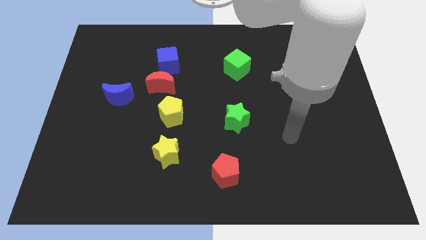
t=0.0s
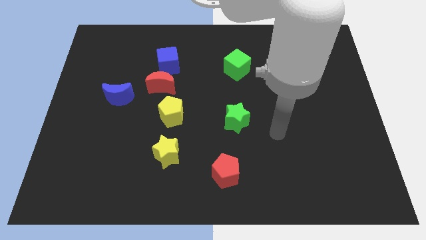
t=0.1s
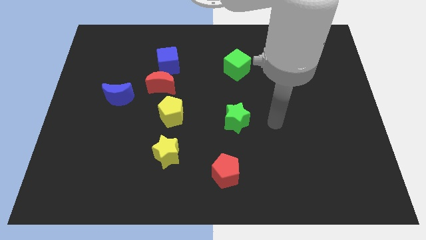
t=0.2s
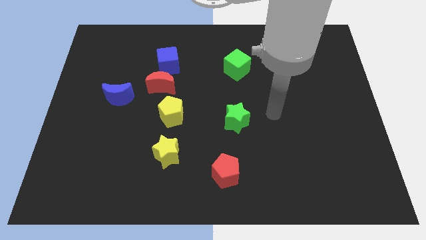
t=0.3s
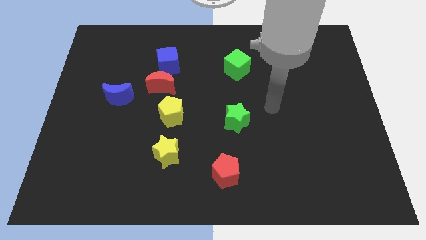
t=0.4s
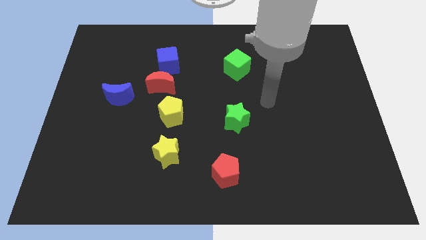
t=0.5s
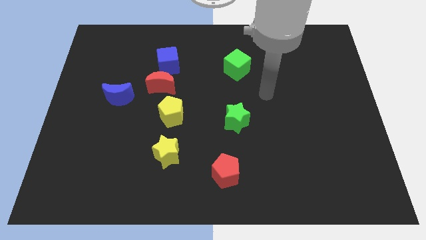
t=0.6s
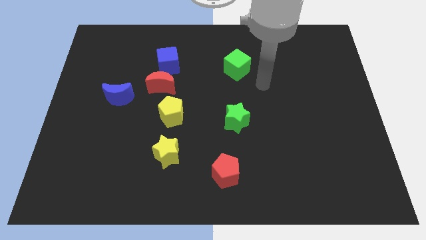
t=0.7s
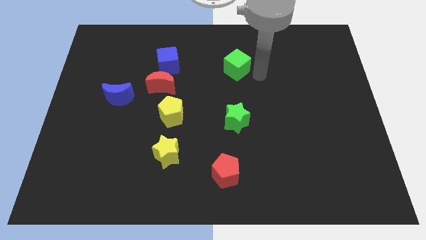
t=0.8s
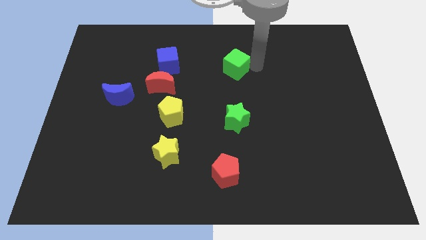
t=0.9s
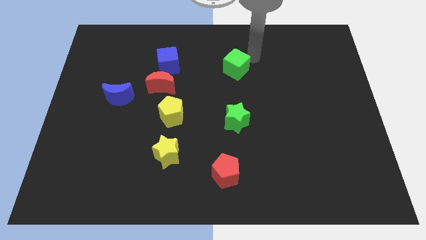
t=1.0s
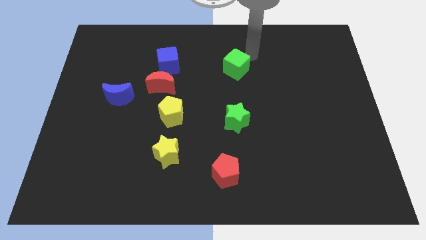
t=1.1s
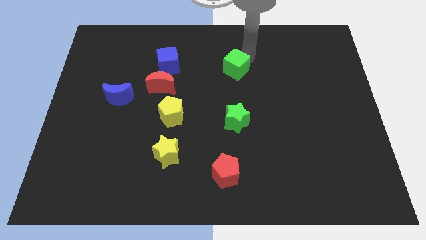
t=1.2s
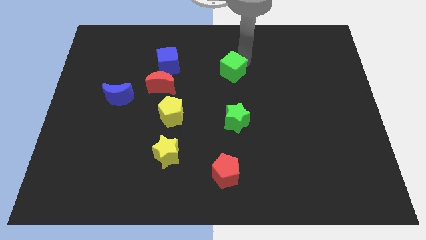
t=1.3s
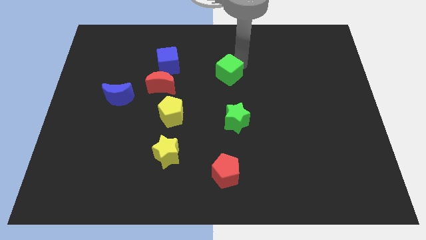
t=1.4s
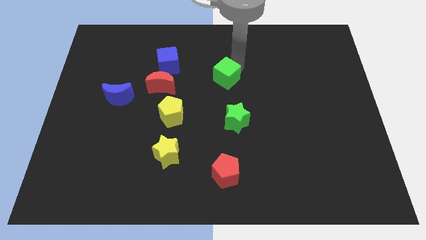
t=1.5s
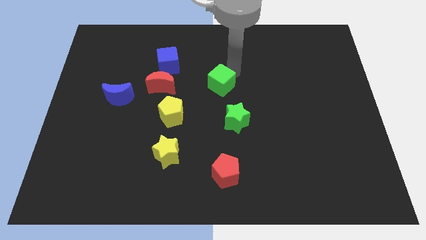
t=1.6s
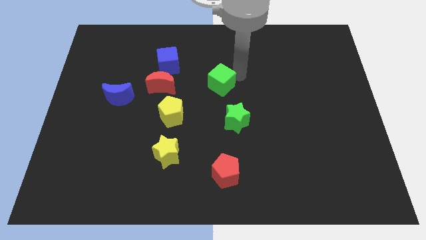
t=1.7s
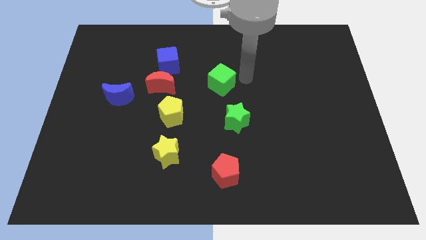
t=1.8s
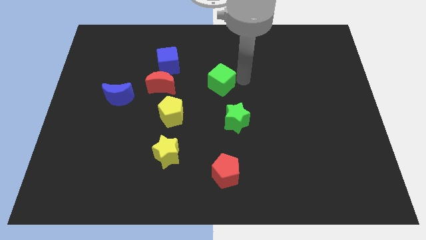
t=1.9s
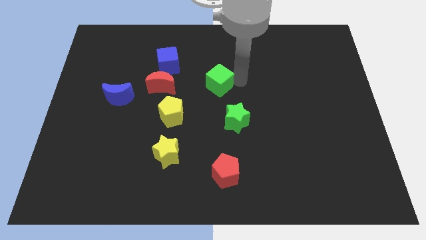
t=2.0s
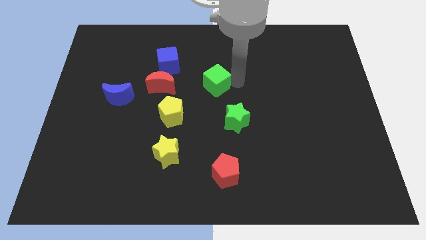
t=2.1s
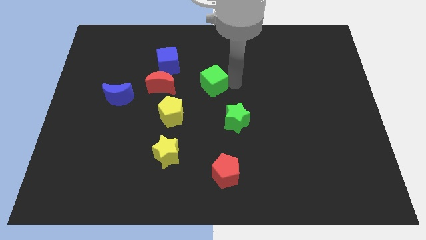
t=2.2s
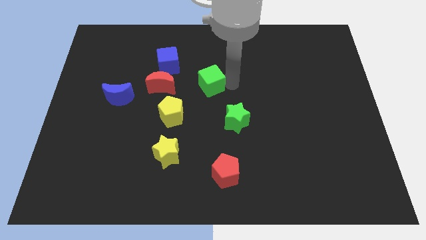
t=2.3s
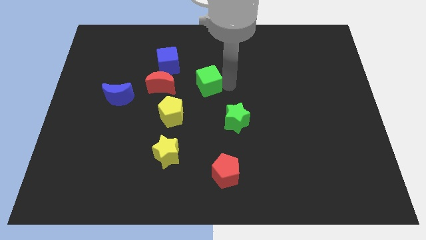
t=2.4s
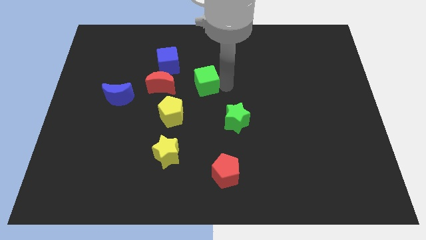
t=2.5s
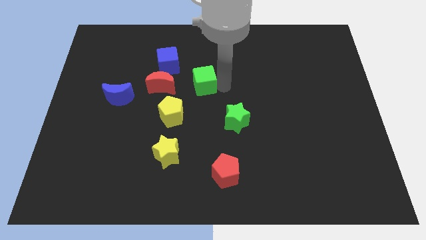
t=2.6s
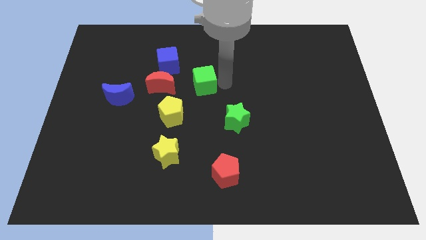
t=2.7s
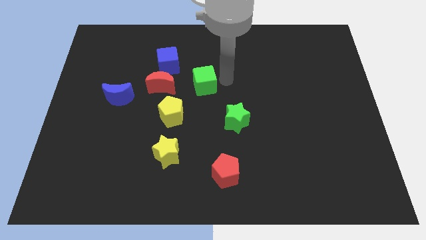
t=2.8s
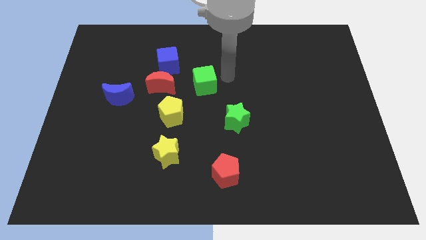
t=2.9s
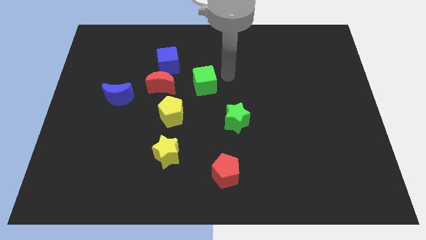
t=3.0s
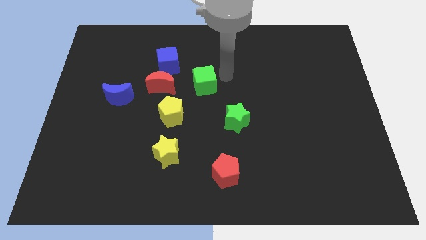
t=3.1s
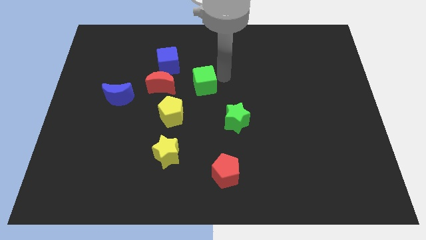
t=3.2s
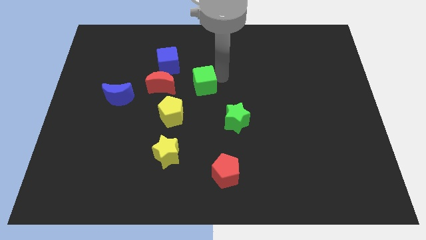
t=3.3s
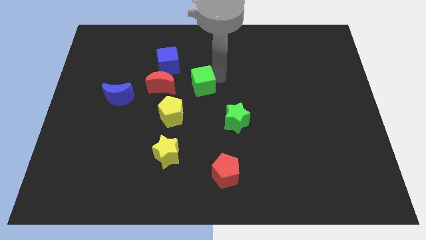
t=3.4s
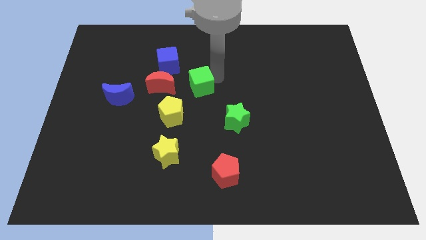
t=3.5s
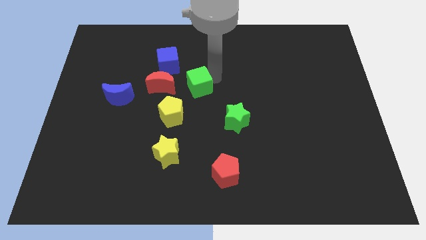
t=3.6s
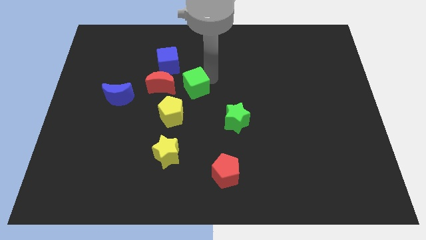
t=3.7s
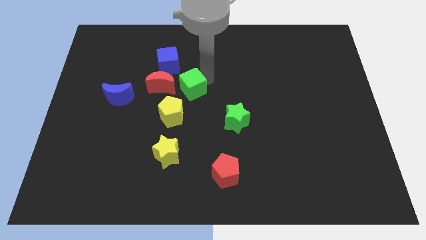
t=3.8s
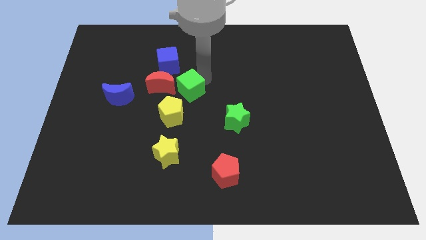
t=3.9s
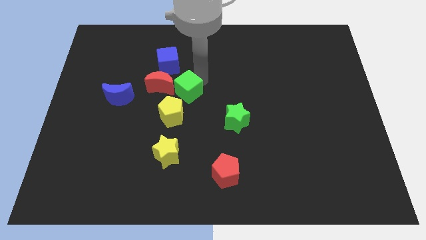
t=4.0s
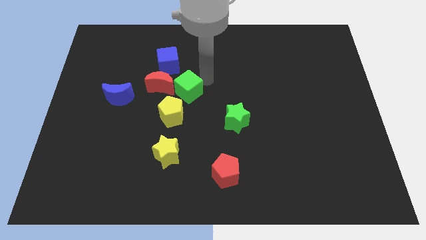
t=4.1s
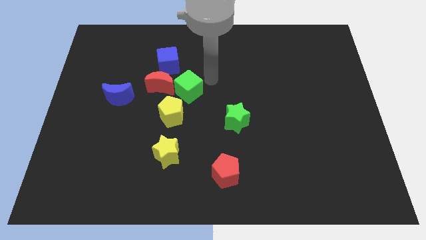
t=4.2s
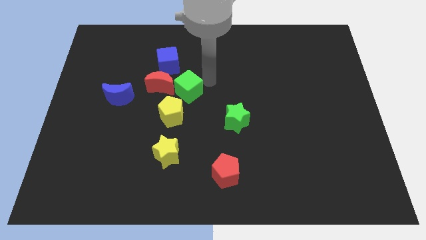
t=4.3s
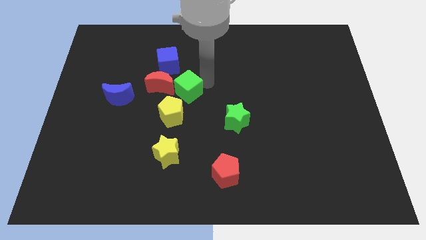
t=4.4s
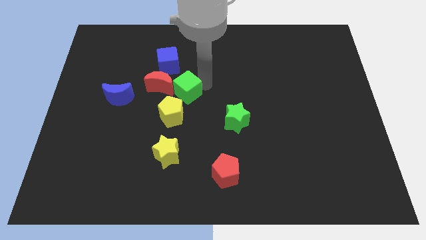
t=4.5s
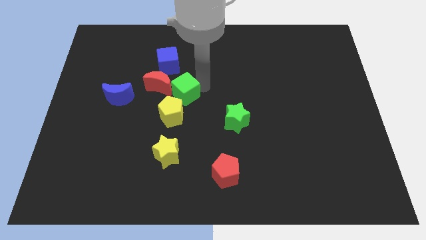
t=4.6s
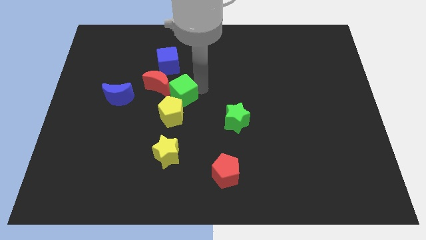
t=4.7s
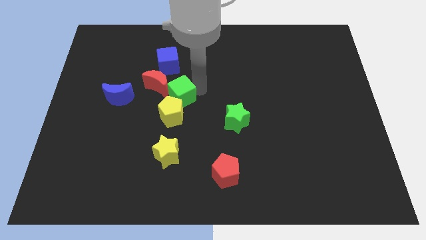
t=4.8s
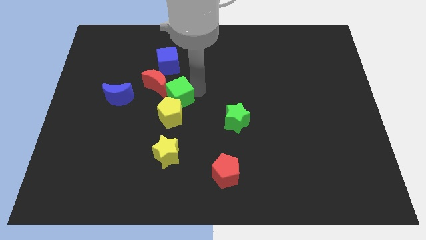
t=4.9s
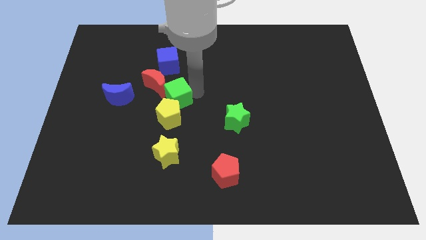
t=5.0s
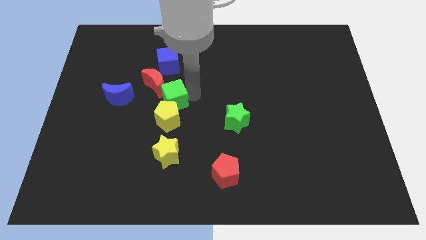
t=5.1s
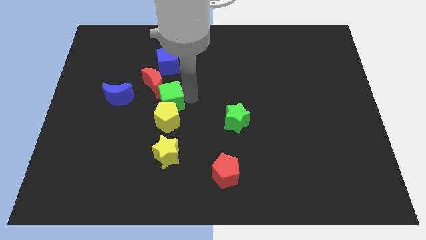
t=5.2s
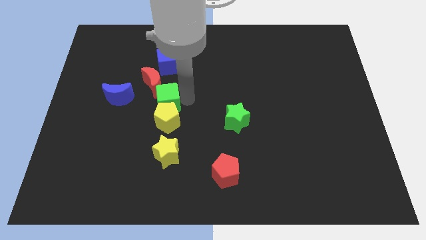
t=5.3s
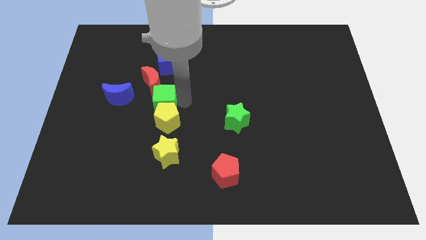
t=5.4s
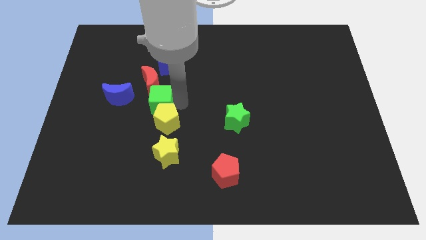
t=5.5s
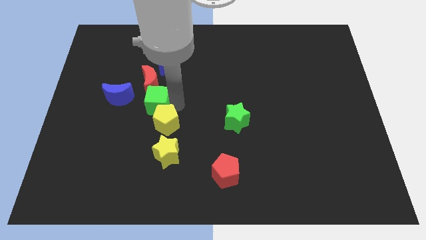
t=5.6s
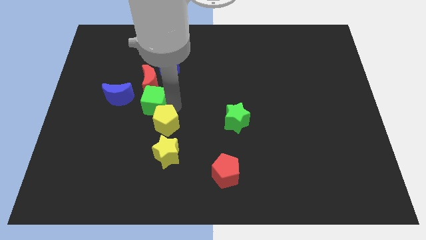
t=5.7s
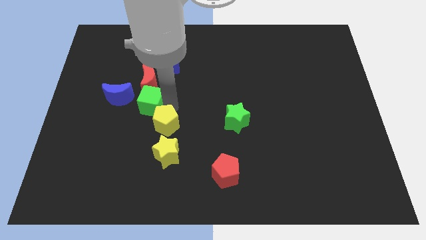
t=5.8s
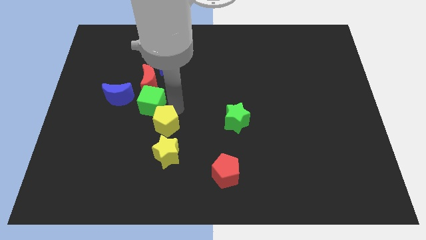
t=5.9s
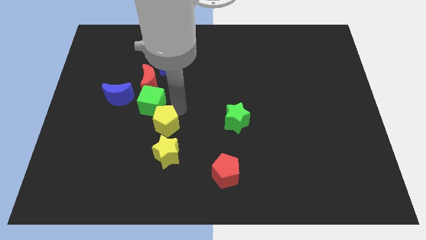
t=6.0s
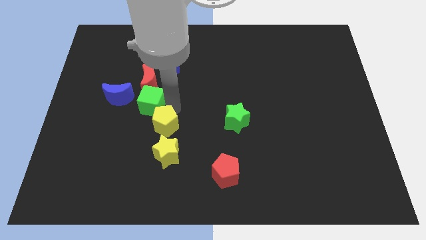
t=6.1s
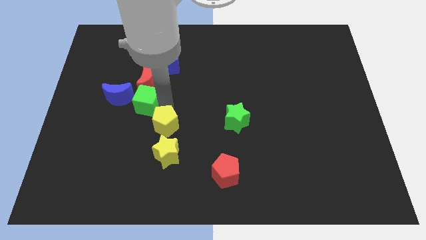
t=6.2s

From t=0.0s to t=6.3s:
push the green cube to the bottom left of the red moon

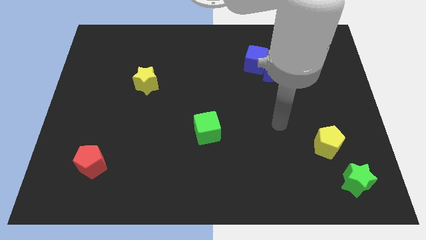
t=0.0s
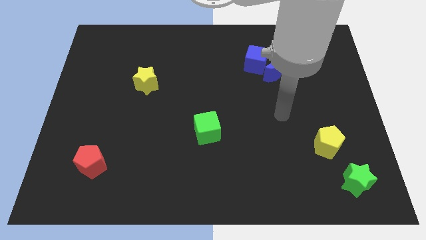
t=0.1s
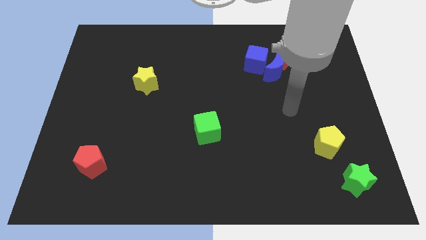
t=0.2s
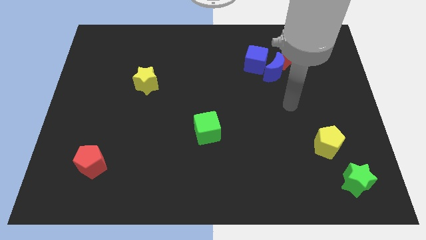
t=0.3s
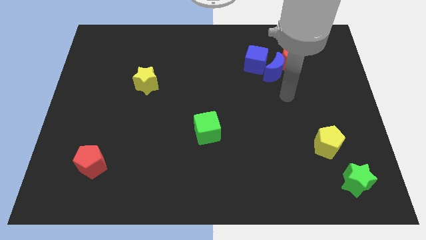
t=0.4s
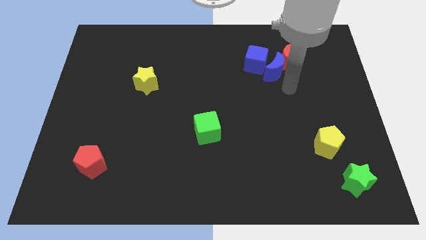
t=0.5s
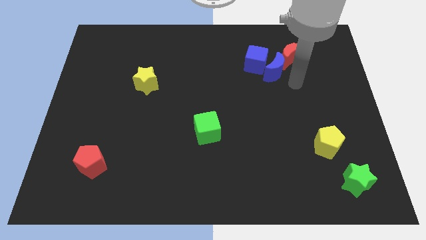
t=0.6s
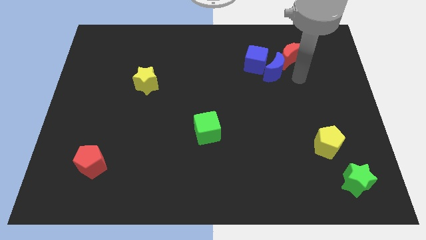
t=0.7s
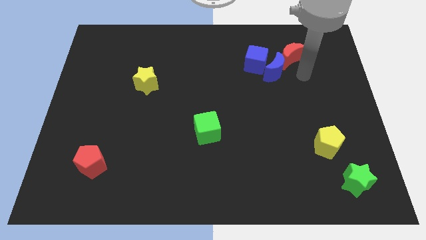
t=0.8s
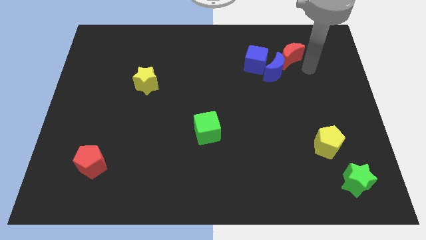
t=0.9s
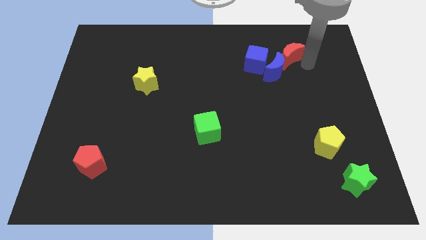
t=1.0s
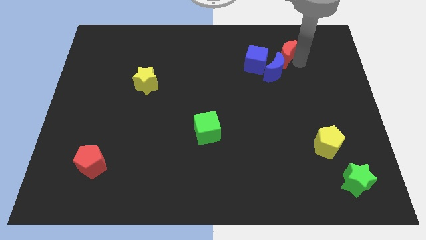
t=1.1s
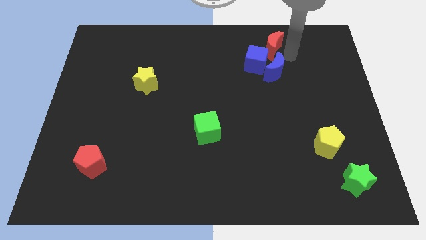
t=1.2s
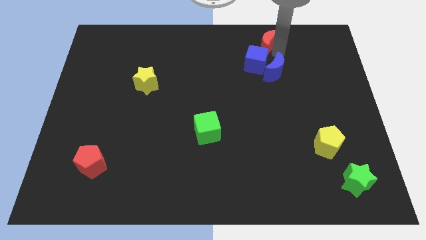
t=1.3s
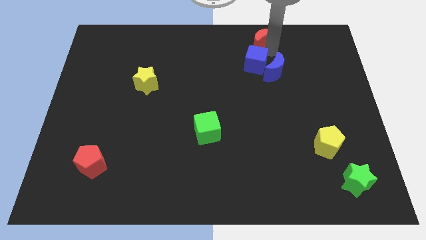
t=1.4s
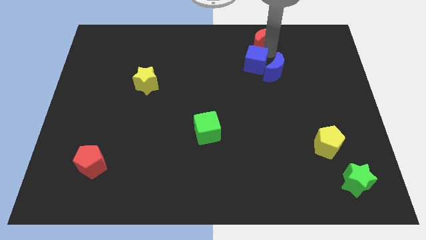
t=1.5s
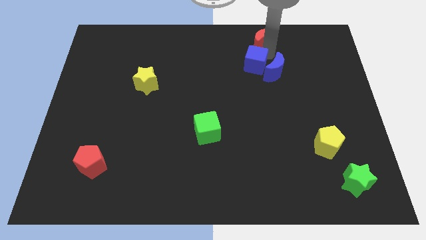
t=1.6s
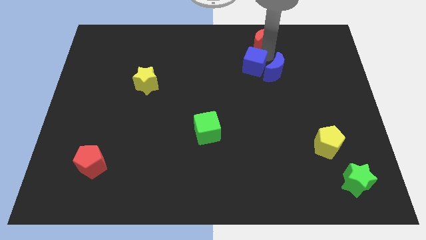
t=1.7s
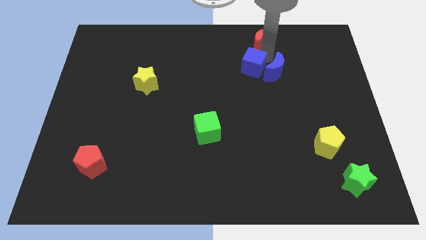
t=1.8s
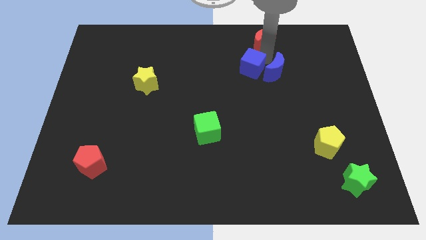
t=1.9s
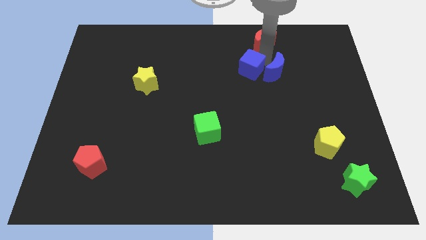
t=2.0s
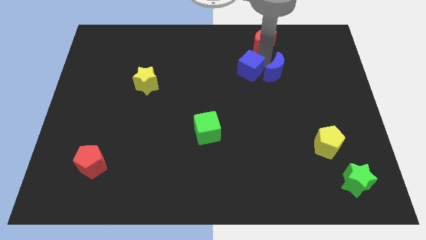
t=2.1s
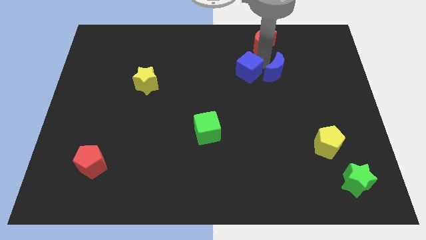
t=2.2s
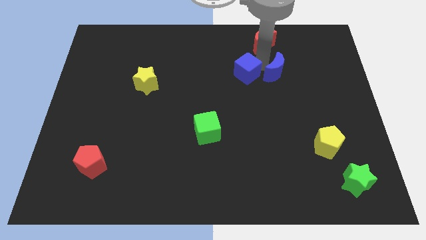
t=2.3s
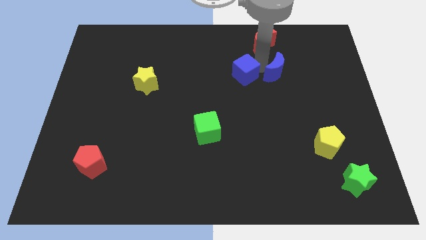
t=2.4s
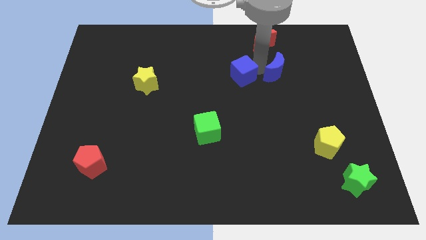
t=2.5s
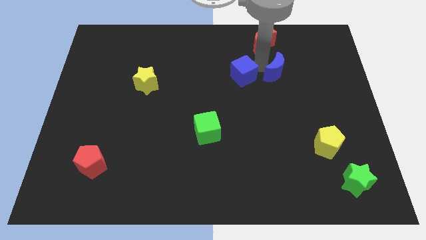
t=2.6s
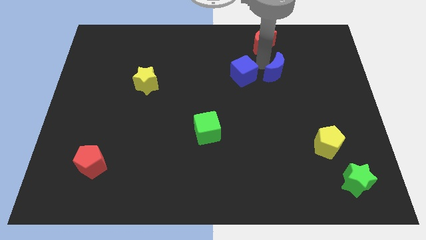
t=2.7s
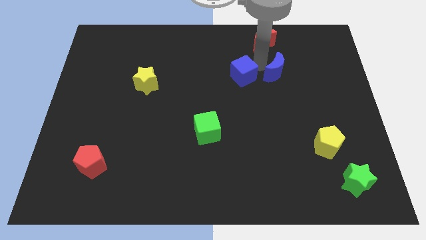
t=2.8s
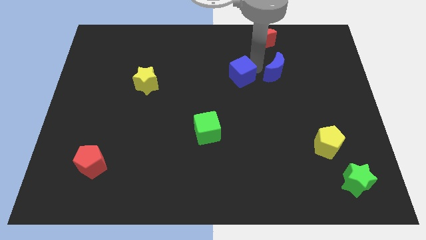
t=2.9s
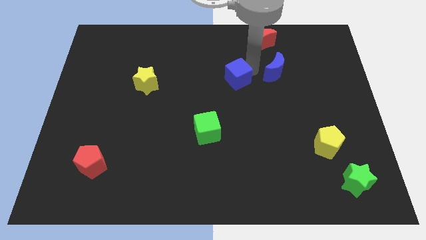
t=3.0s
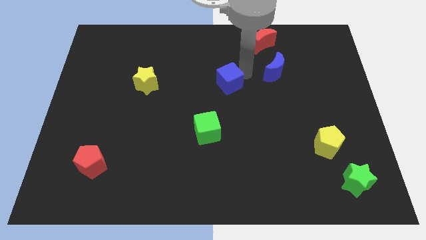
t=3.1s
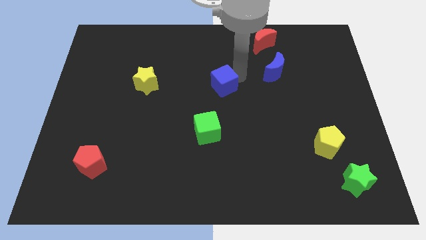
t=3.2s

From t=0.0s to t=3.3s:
slide the blue cube to the top side of the green cube
